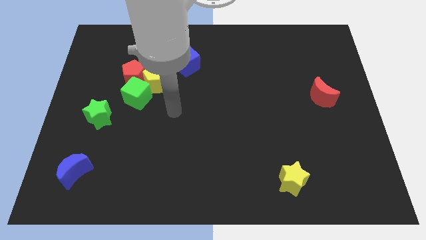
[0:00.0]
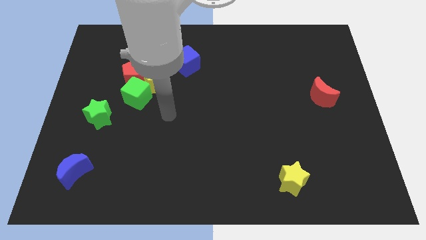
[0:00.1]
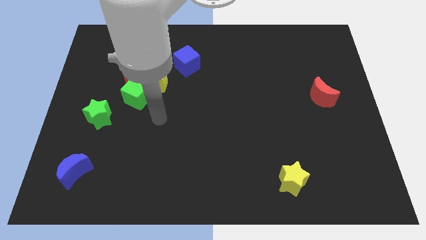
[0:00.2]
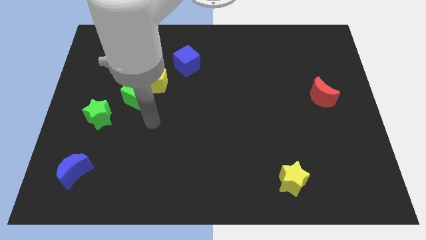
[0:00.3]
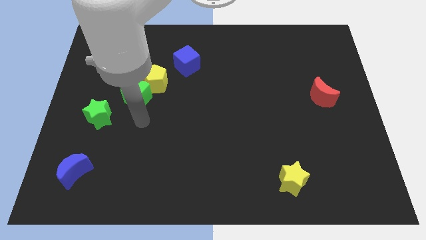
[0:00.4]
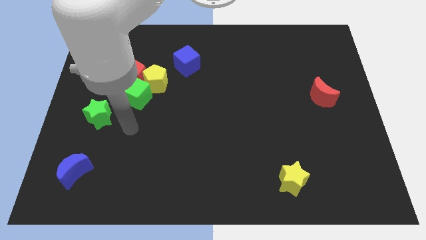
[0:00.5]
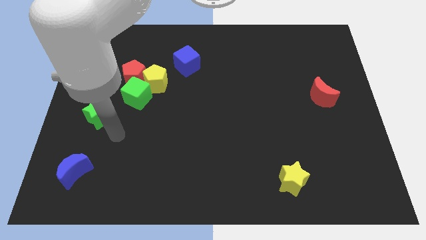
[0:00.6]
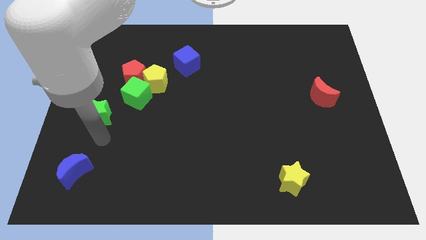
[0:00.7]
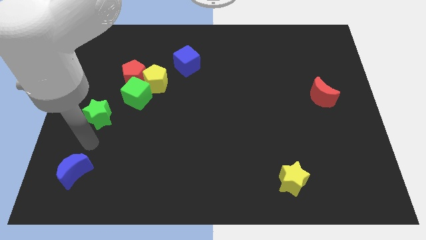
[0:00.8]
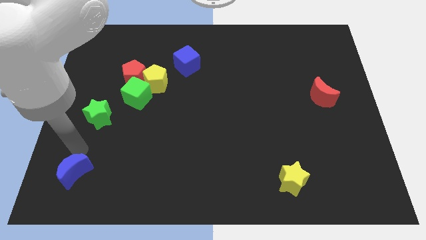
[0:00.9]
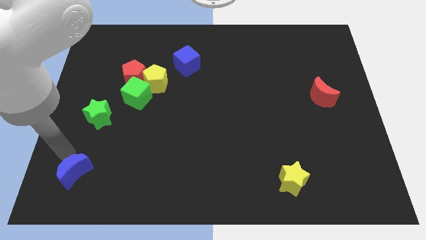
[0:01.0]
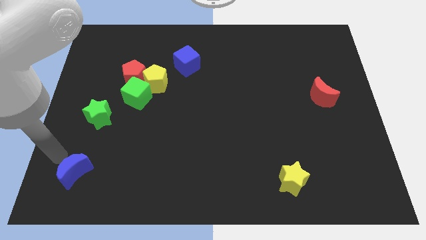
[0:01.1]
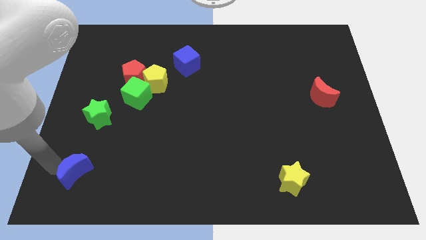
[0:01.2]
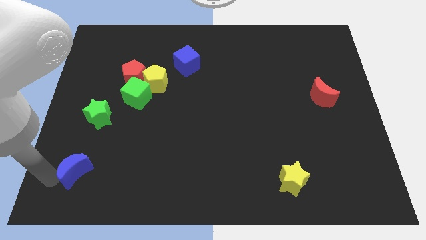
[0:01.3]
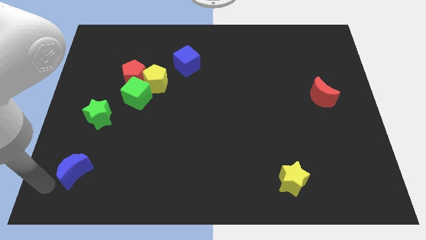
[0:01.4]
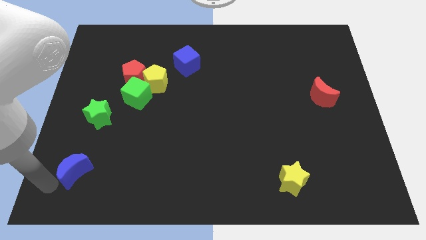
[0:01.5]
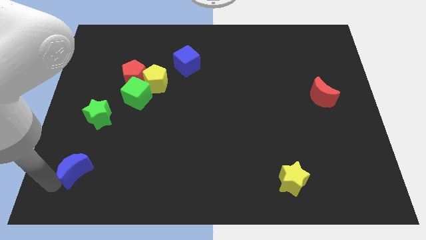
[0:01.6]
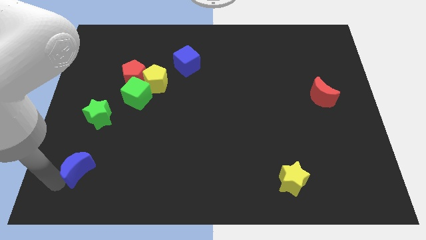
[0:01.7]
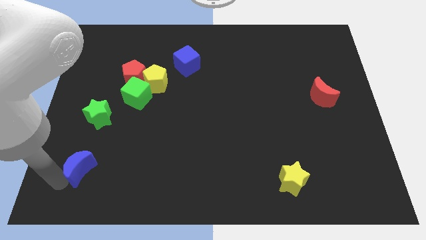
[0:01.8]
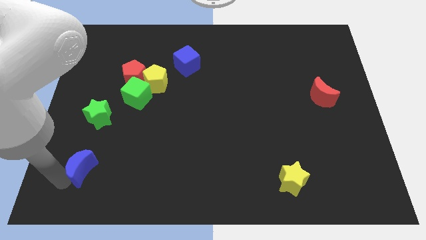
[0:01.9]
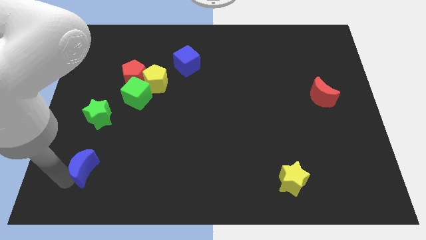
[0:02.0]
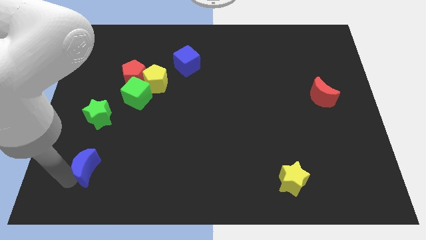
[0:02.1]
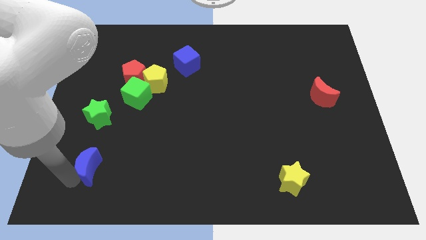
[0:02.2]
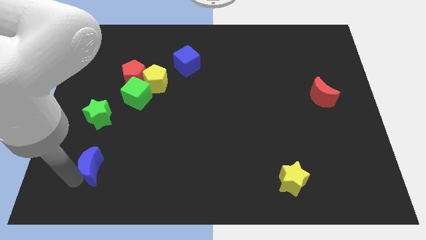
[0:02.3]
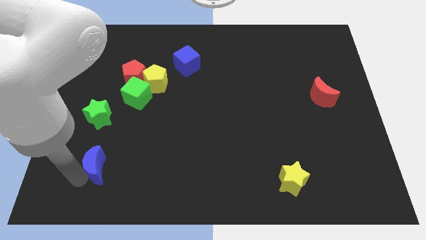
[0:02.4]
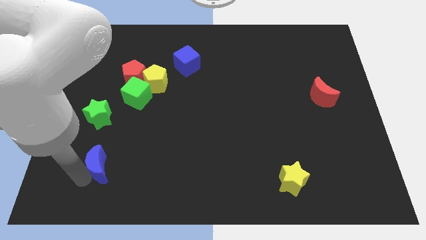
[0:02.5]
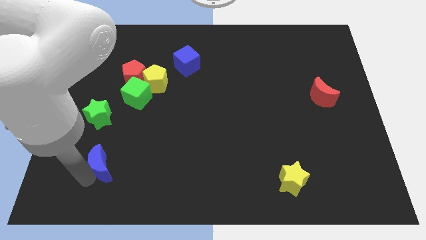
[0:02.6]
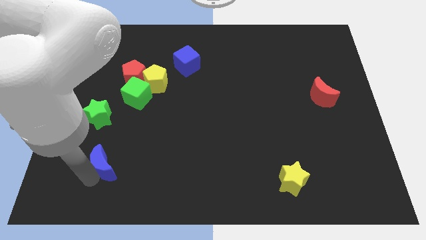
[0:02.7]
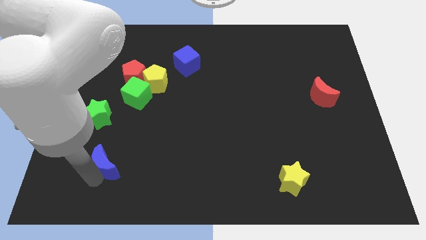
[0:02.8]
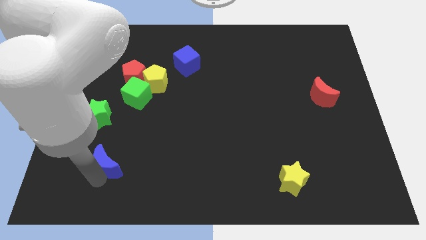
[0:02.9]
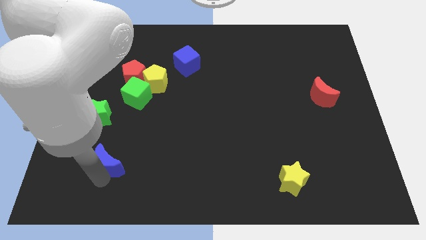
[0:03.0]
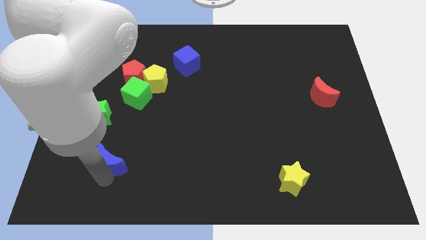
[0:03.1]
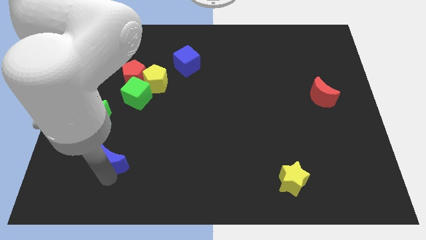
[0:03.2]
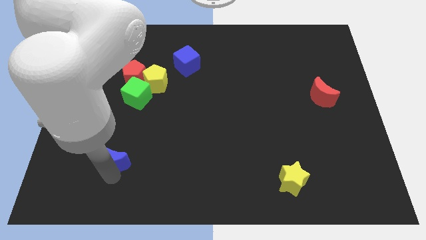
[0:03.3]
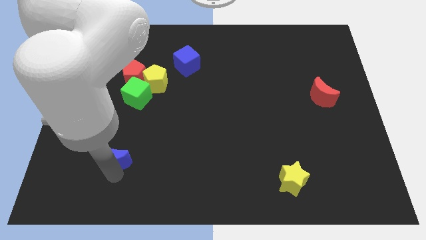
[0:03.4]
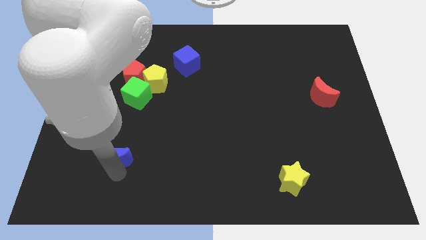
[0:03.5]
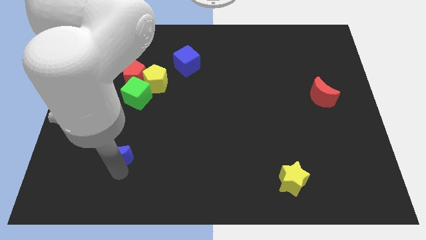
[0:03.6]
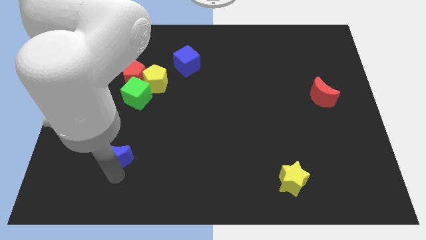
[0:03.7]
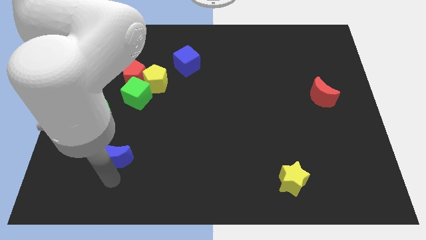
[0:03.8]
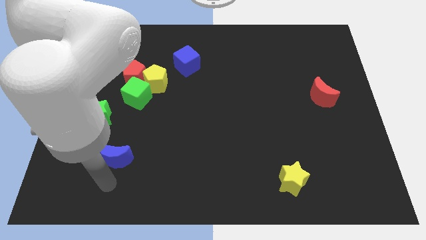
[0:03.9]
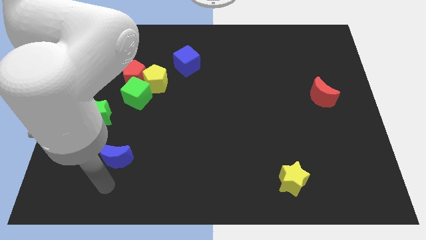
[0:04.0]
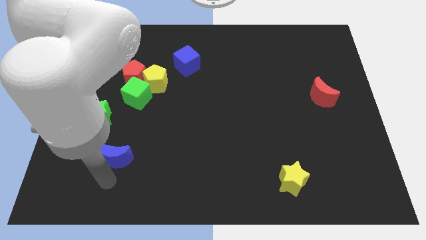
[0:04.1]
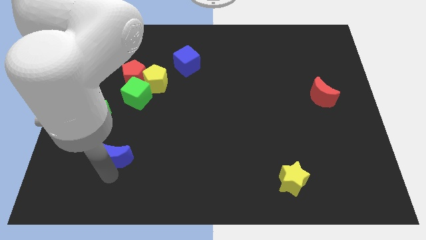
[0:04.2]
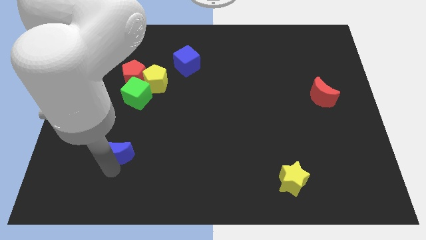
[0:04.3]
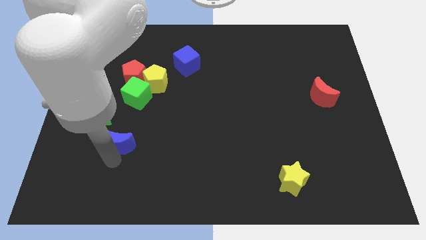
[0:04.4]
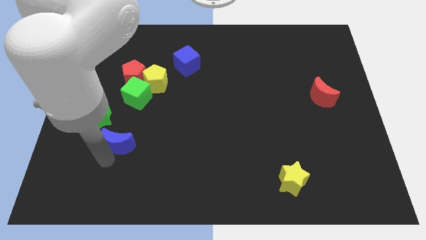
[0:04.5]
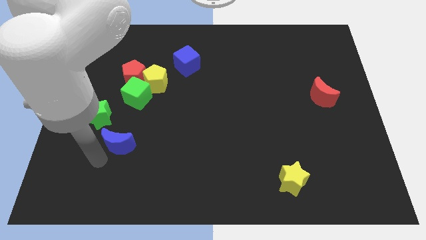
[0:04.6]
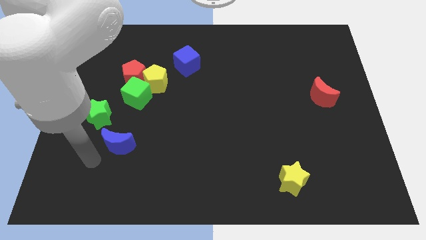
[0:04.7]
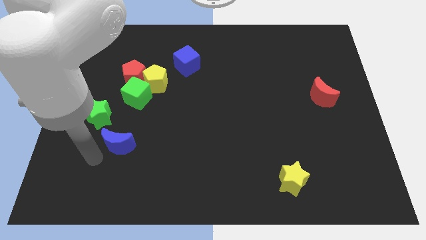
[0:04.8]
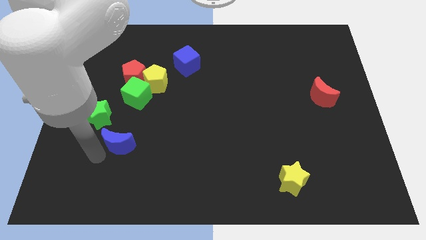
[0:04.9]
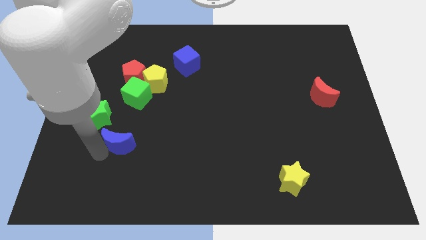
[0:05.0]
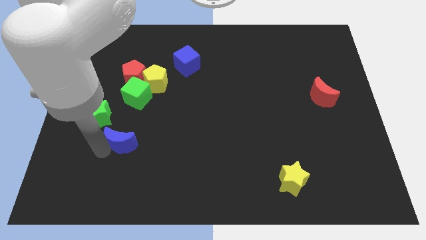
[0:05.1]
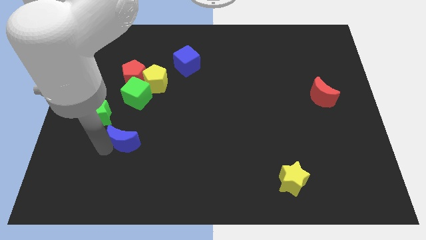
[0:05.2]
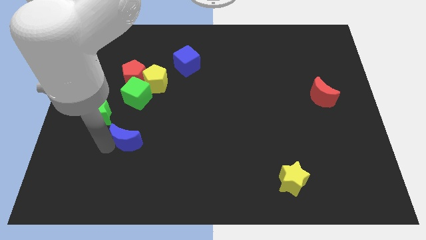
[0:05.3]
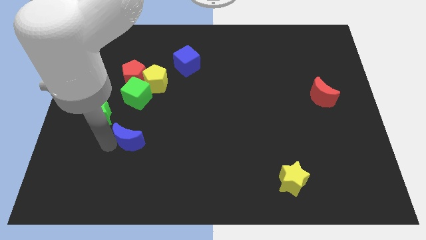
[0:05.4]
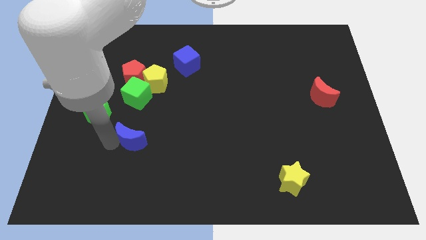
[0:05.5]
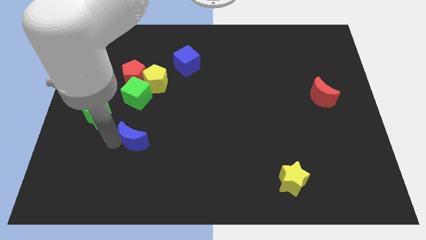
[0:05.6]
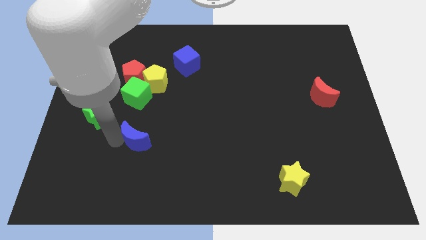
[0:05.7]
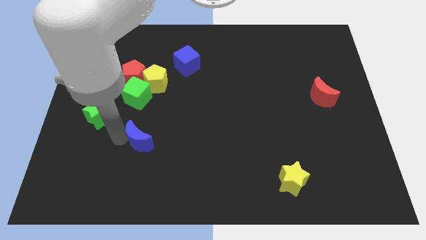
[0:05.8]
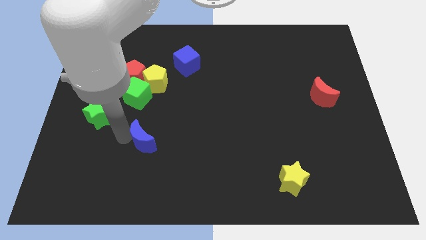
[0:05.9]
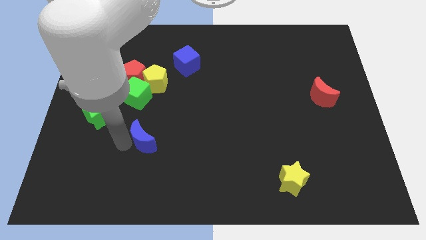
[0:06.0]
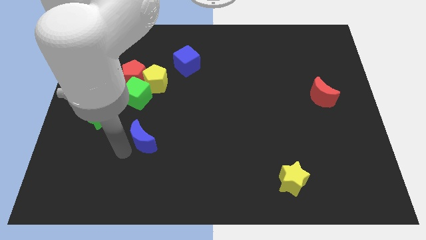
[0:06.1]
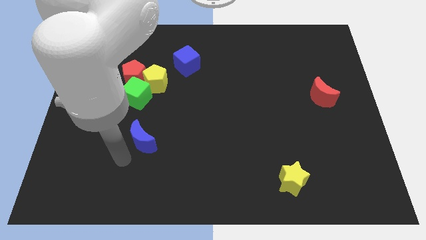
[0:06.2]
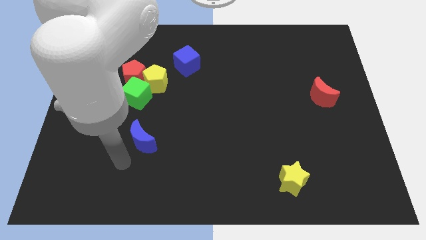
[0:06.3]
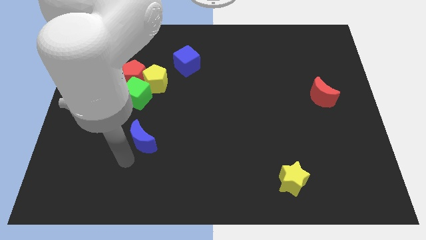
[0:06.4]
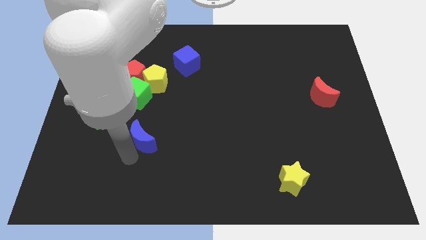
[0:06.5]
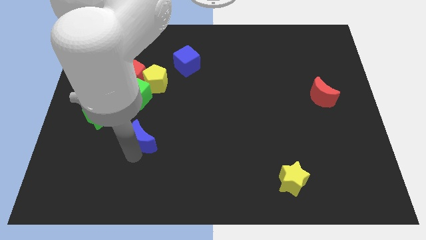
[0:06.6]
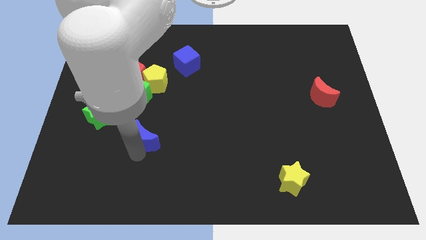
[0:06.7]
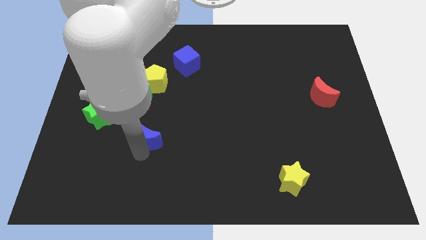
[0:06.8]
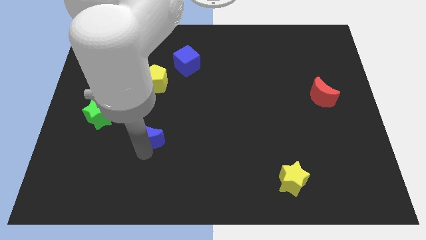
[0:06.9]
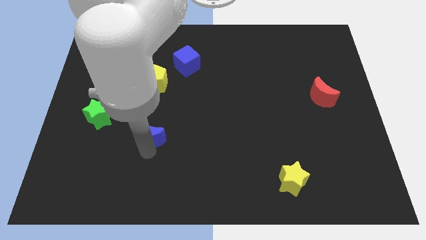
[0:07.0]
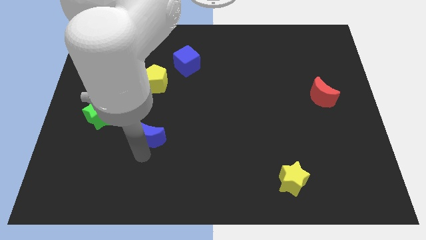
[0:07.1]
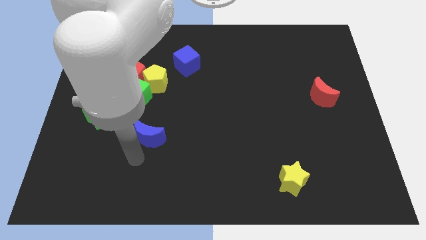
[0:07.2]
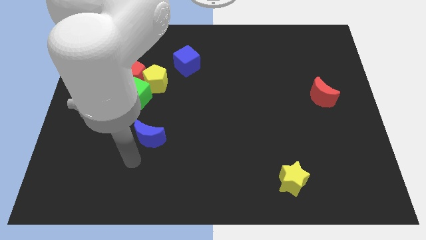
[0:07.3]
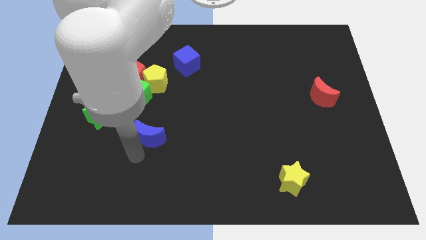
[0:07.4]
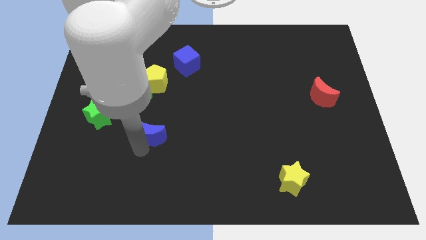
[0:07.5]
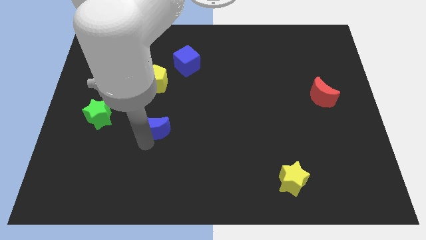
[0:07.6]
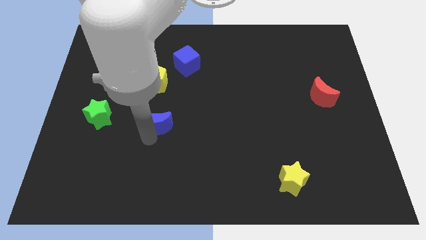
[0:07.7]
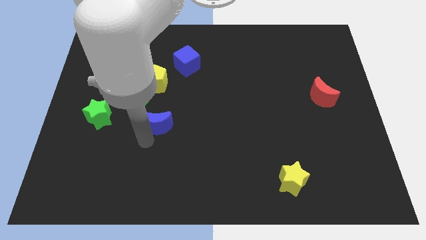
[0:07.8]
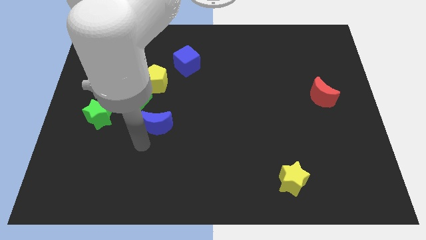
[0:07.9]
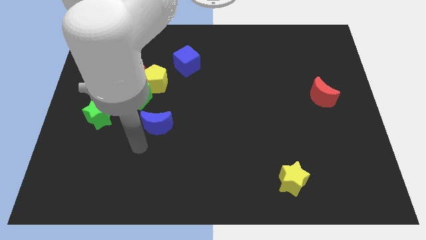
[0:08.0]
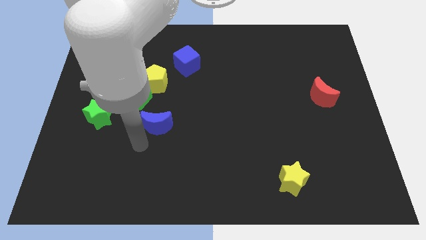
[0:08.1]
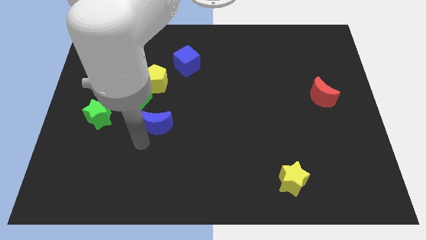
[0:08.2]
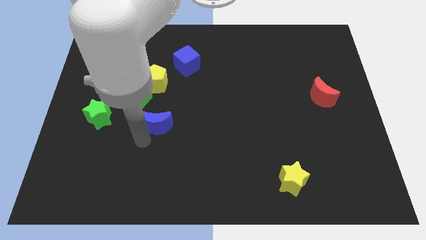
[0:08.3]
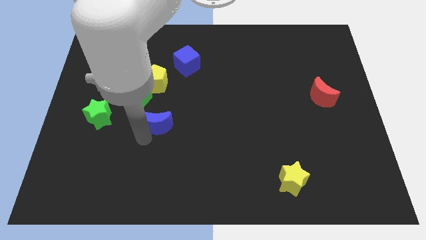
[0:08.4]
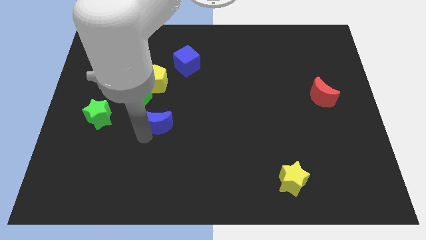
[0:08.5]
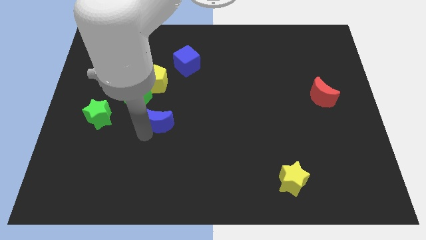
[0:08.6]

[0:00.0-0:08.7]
push the blue moon up and right
